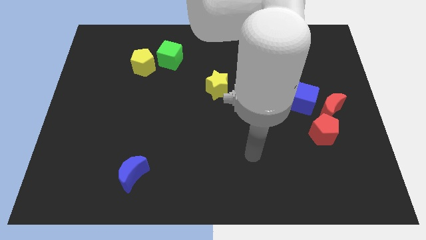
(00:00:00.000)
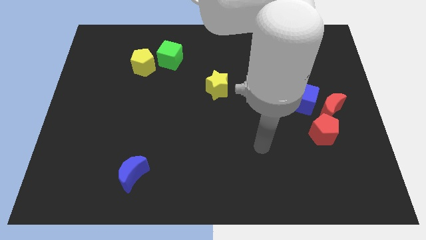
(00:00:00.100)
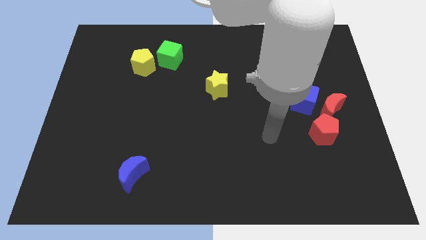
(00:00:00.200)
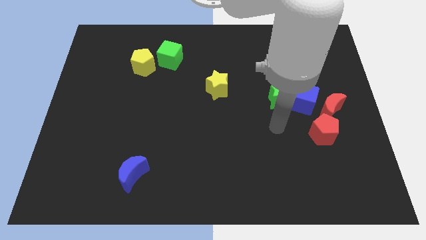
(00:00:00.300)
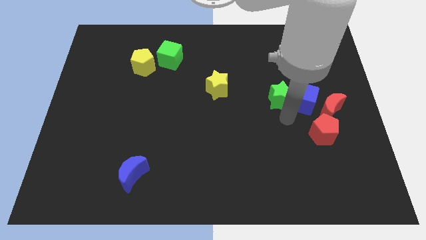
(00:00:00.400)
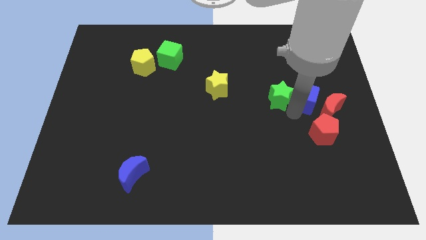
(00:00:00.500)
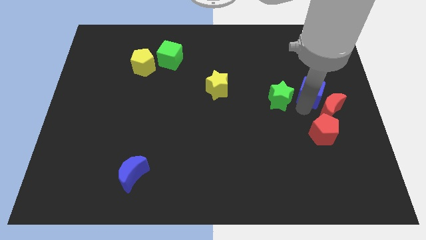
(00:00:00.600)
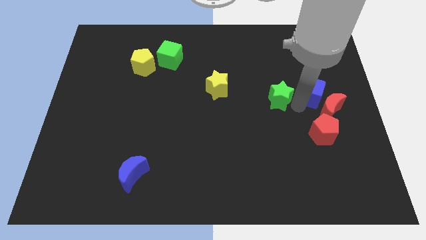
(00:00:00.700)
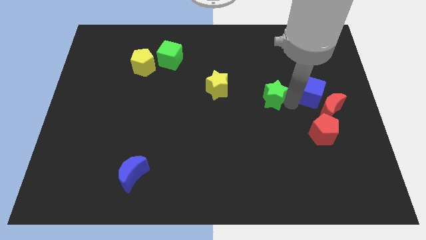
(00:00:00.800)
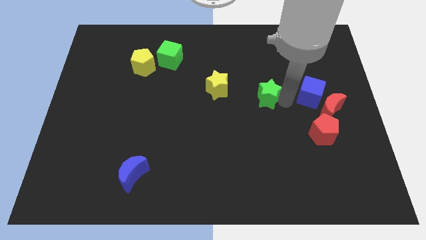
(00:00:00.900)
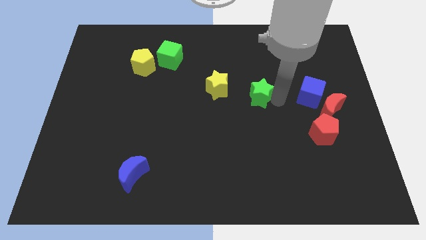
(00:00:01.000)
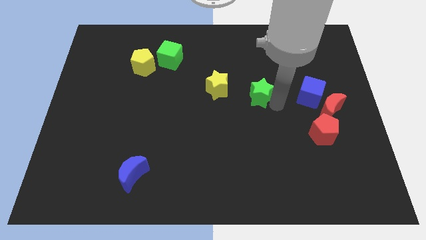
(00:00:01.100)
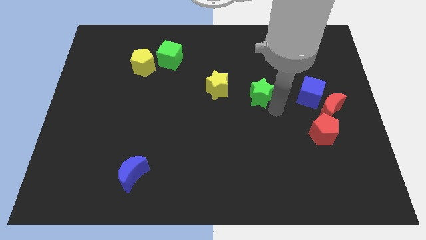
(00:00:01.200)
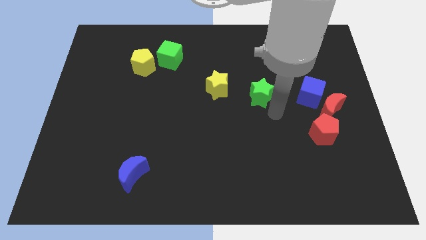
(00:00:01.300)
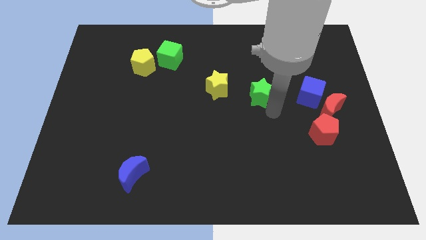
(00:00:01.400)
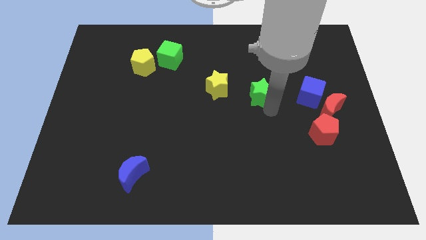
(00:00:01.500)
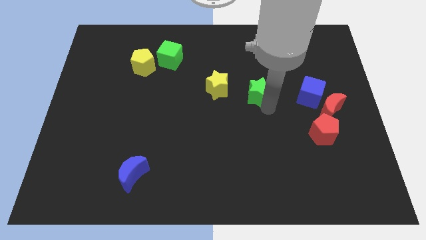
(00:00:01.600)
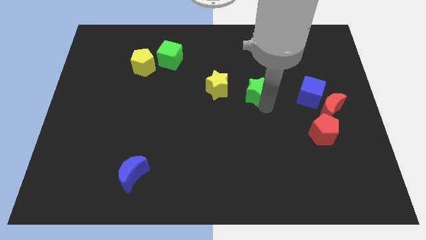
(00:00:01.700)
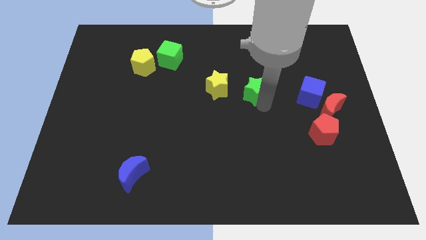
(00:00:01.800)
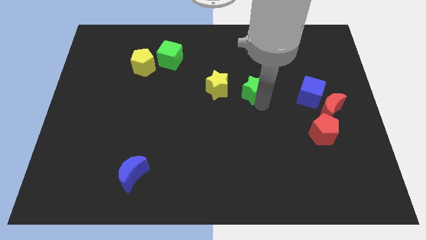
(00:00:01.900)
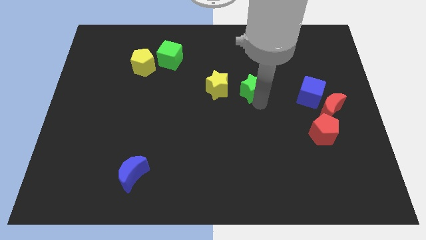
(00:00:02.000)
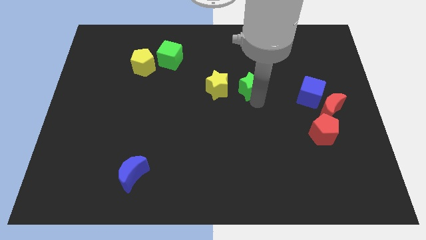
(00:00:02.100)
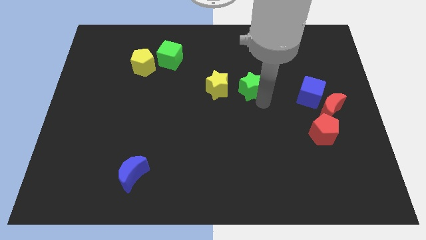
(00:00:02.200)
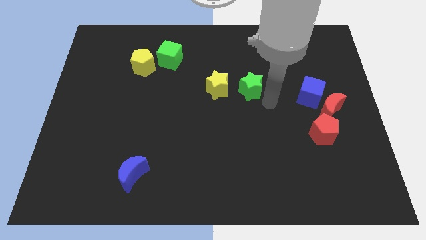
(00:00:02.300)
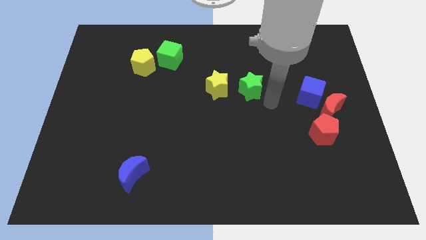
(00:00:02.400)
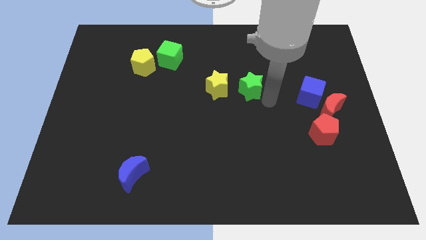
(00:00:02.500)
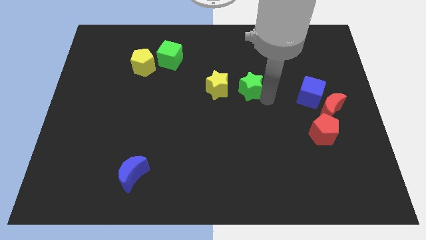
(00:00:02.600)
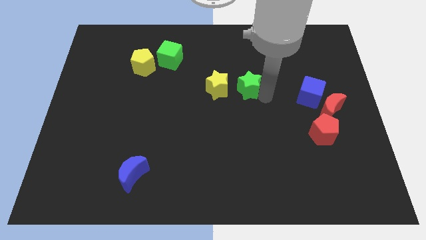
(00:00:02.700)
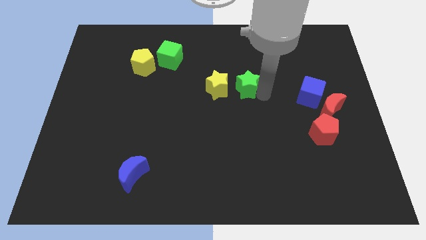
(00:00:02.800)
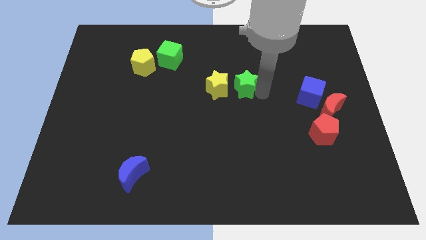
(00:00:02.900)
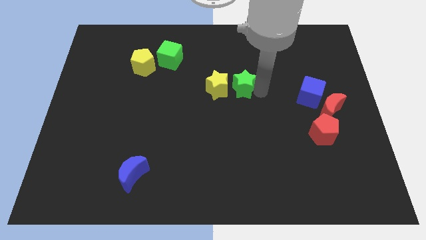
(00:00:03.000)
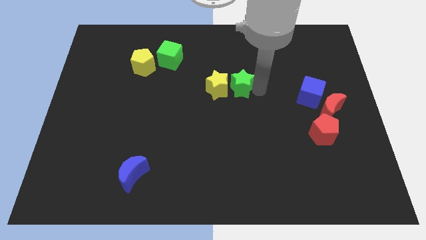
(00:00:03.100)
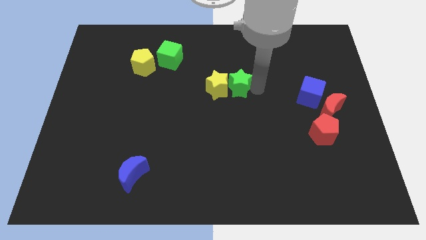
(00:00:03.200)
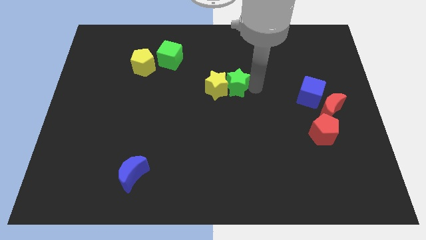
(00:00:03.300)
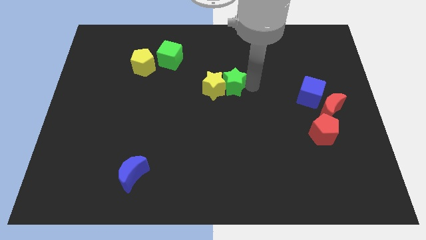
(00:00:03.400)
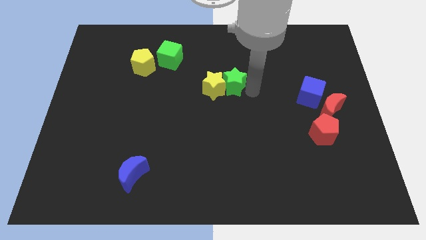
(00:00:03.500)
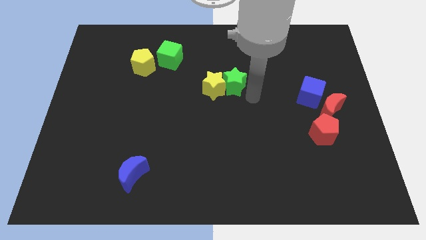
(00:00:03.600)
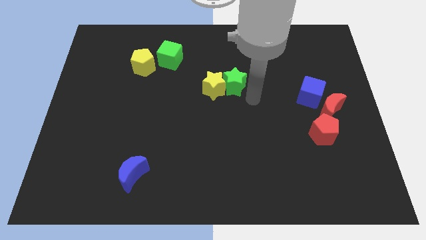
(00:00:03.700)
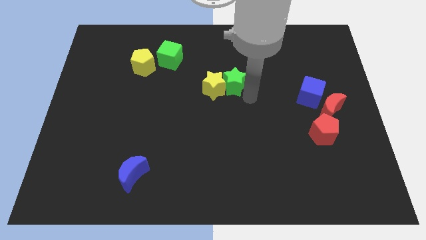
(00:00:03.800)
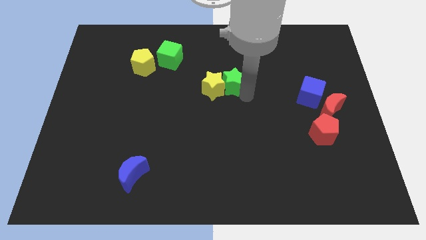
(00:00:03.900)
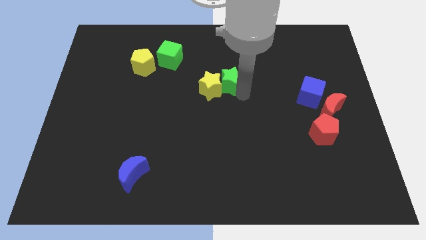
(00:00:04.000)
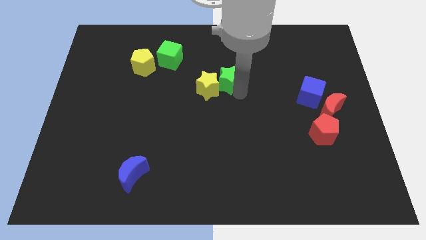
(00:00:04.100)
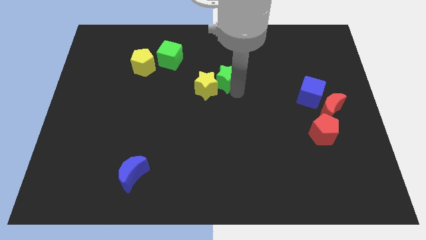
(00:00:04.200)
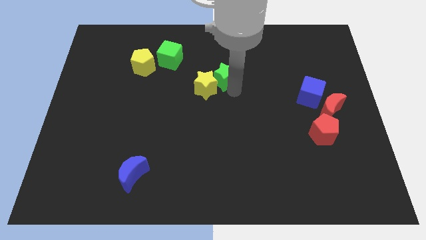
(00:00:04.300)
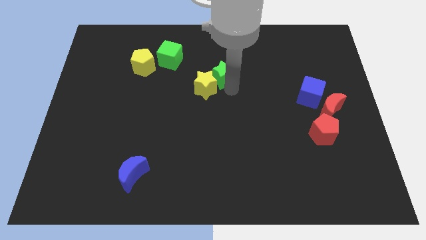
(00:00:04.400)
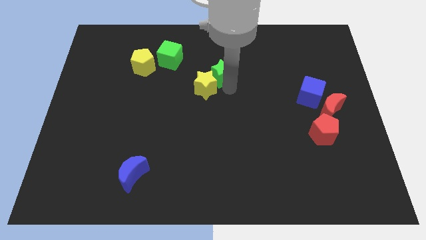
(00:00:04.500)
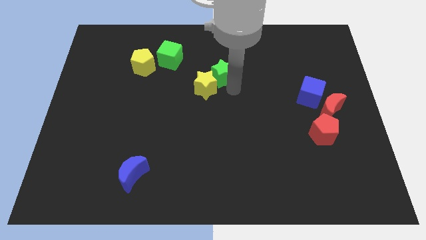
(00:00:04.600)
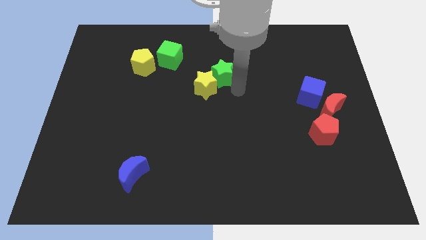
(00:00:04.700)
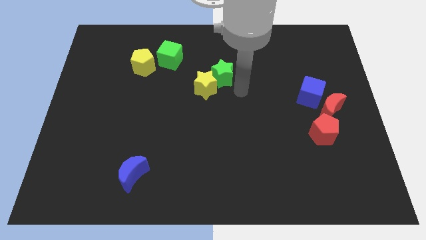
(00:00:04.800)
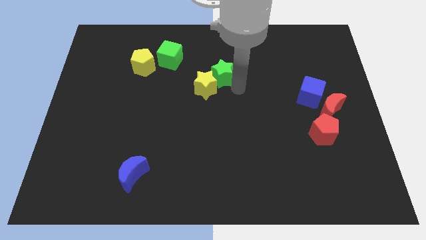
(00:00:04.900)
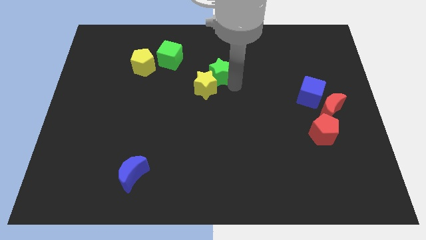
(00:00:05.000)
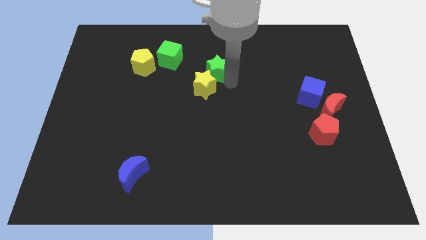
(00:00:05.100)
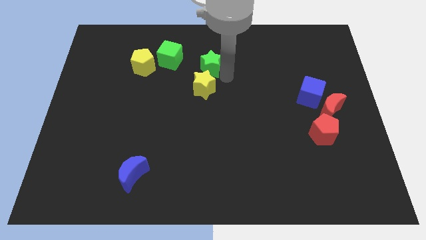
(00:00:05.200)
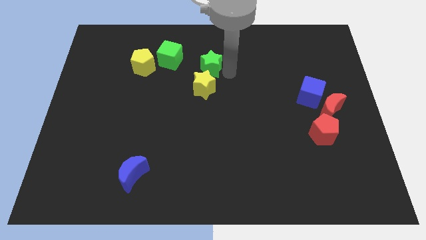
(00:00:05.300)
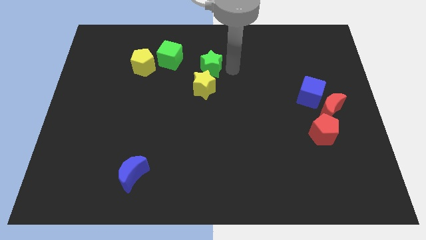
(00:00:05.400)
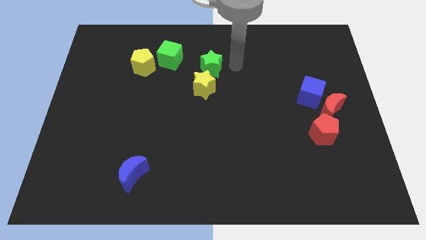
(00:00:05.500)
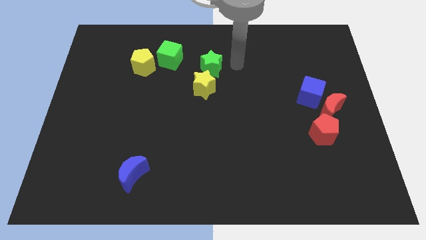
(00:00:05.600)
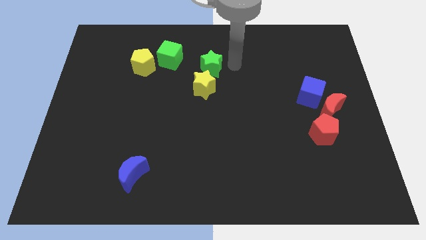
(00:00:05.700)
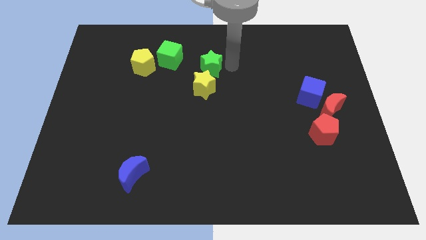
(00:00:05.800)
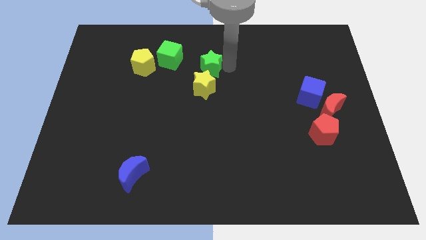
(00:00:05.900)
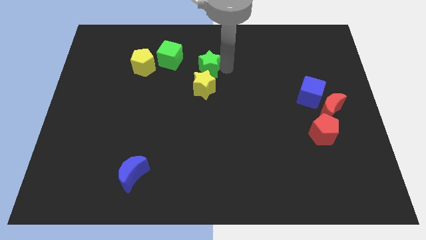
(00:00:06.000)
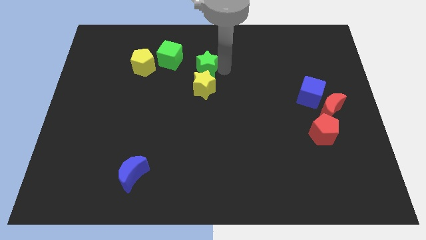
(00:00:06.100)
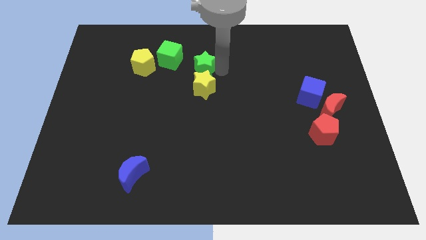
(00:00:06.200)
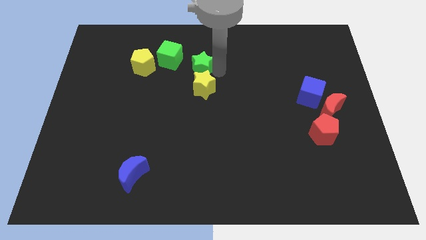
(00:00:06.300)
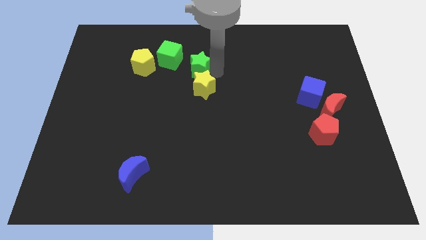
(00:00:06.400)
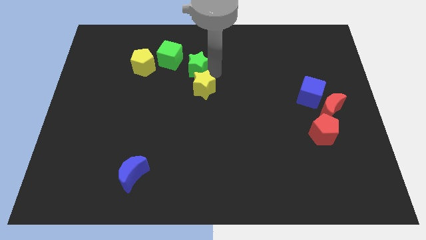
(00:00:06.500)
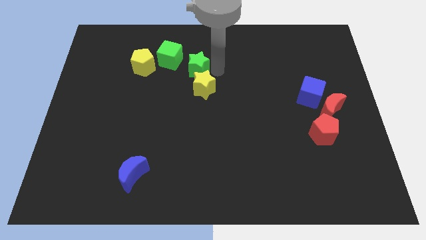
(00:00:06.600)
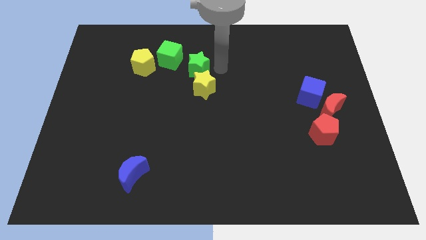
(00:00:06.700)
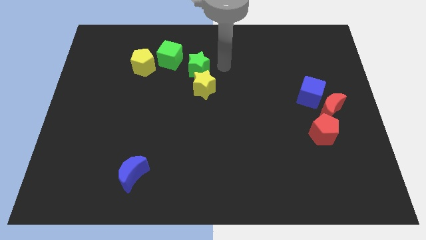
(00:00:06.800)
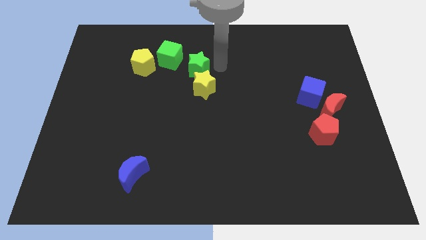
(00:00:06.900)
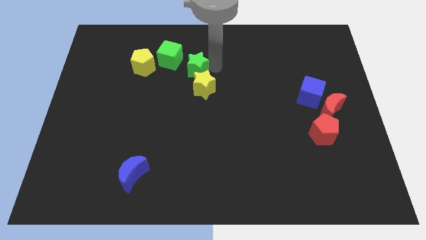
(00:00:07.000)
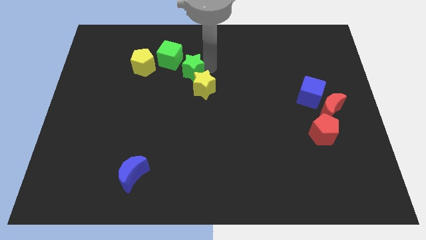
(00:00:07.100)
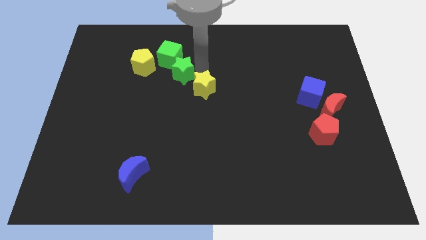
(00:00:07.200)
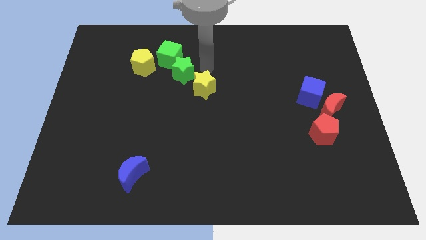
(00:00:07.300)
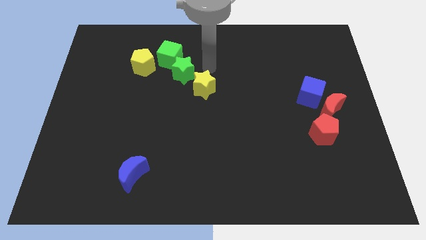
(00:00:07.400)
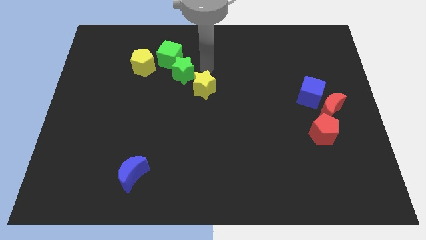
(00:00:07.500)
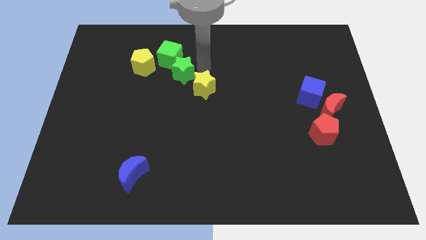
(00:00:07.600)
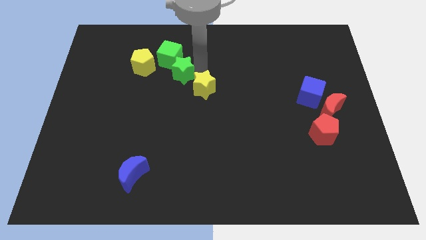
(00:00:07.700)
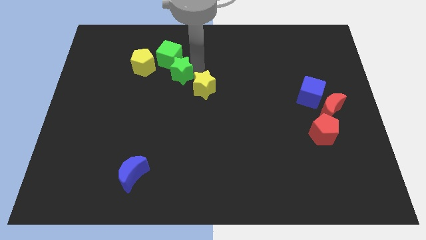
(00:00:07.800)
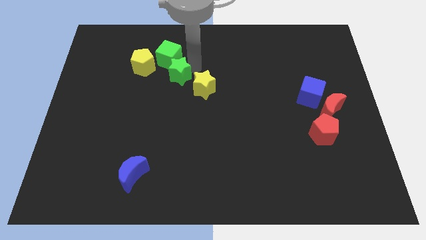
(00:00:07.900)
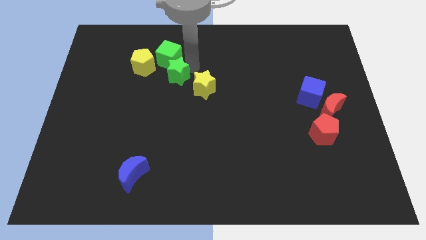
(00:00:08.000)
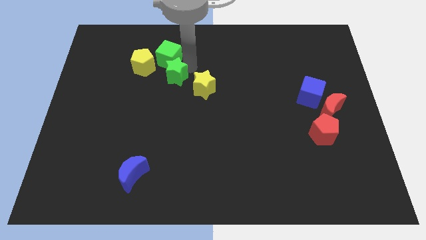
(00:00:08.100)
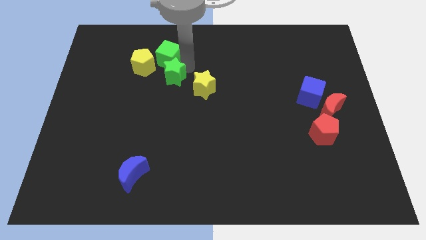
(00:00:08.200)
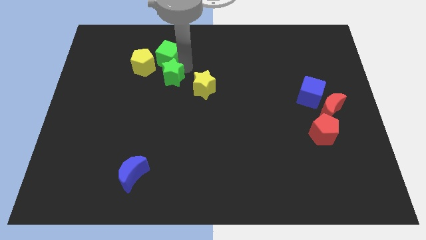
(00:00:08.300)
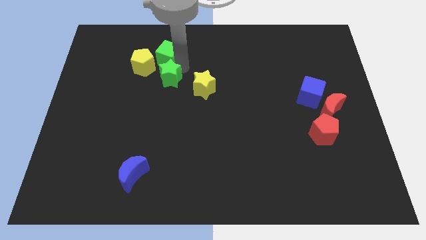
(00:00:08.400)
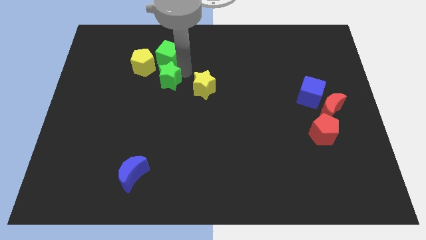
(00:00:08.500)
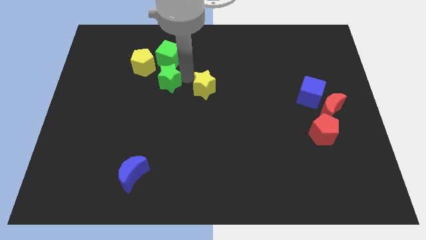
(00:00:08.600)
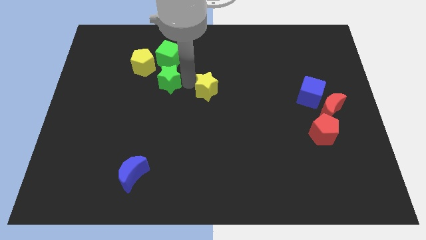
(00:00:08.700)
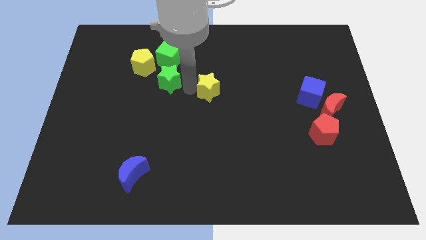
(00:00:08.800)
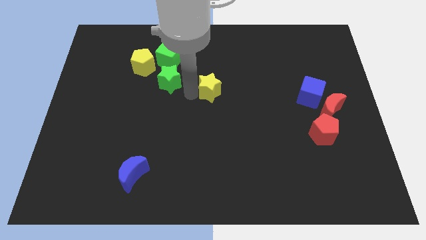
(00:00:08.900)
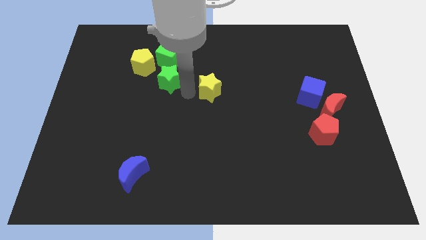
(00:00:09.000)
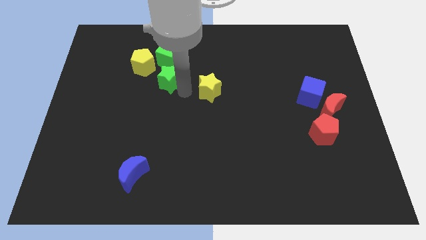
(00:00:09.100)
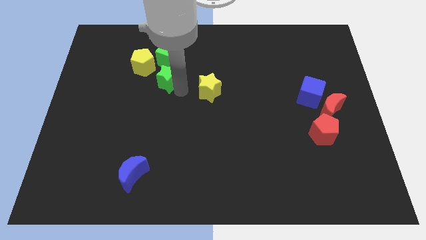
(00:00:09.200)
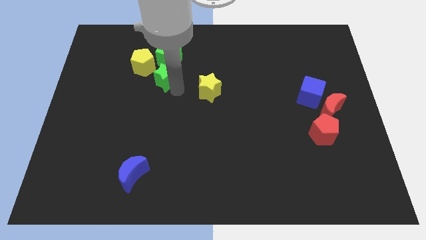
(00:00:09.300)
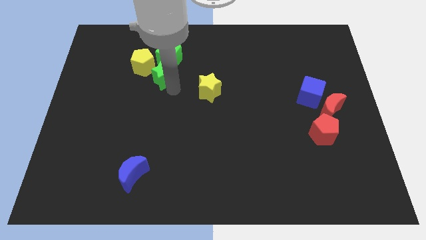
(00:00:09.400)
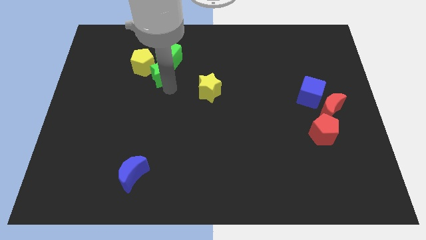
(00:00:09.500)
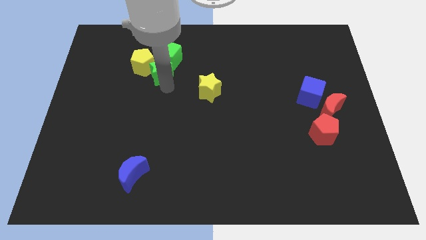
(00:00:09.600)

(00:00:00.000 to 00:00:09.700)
move the green star to the yellow pentagon
